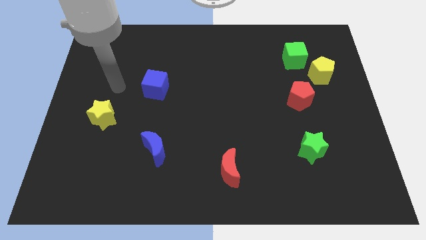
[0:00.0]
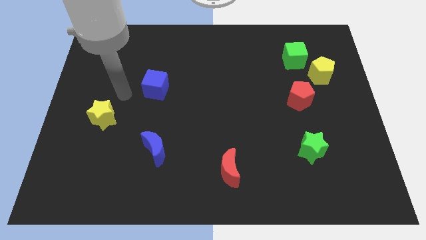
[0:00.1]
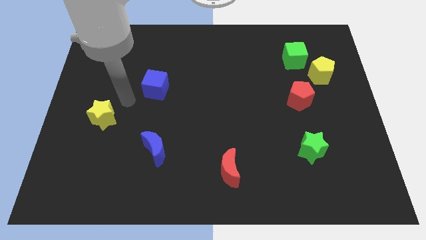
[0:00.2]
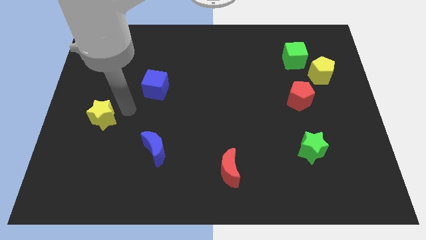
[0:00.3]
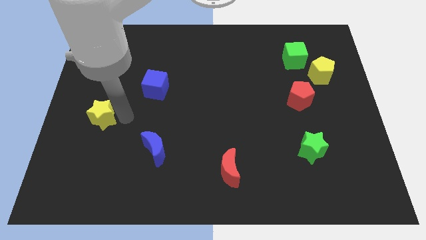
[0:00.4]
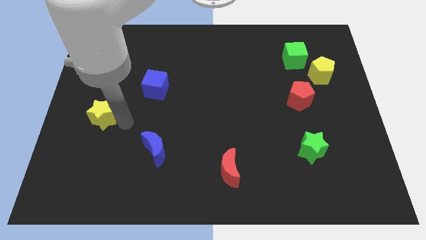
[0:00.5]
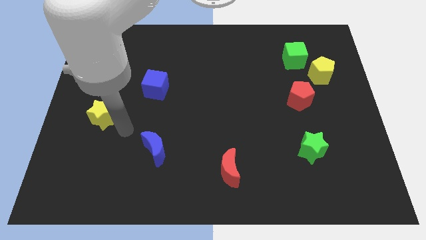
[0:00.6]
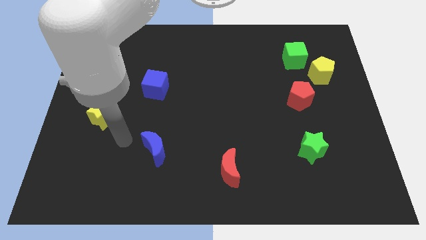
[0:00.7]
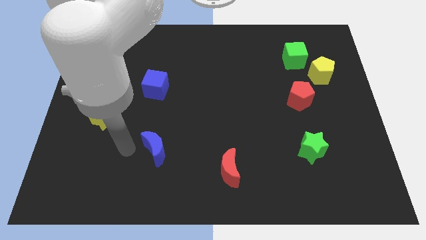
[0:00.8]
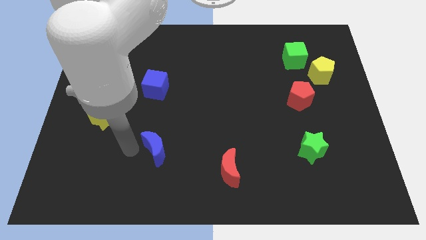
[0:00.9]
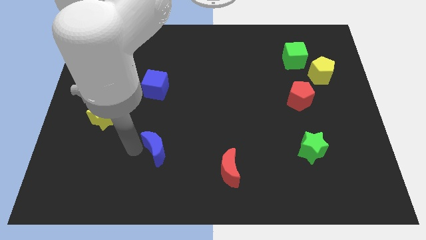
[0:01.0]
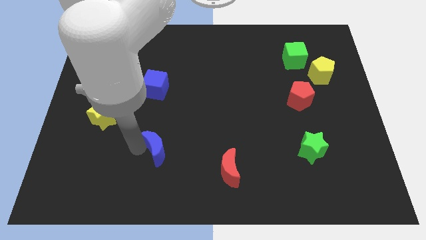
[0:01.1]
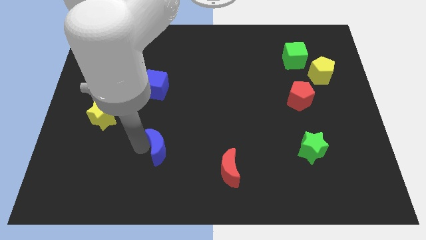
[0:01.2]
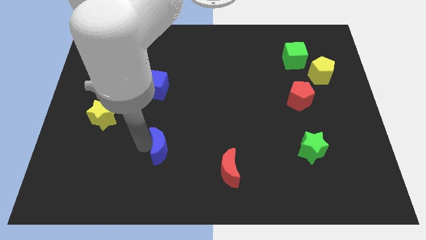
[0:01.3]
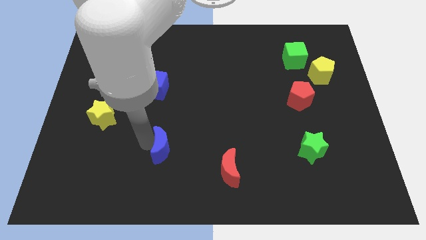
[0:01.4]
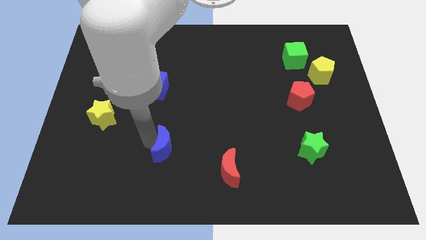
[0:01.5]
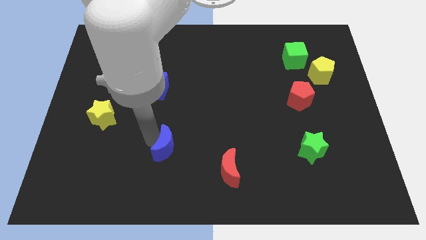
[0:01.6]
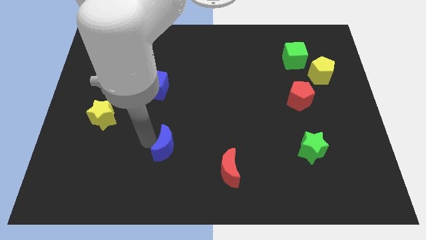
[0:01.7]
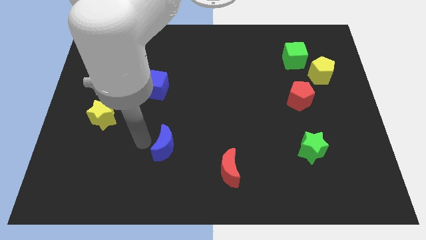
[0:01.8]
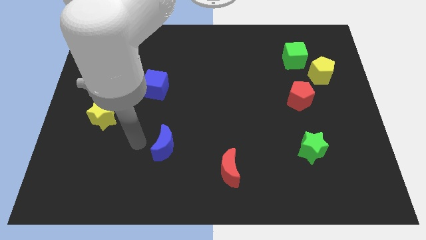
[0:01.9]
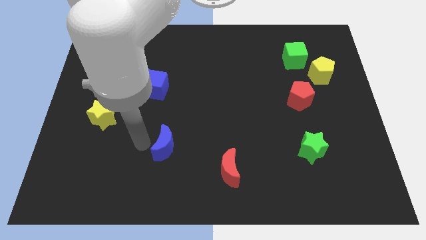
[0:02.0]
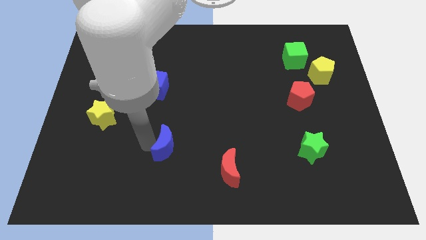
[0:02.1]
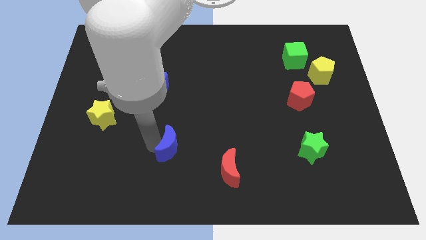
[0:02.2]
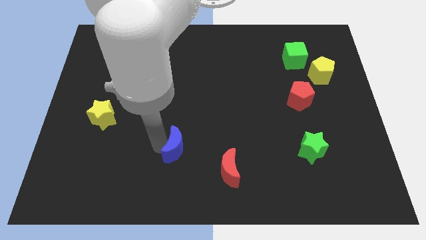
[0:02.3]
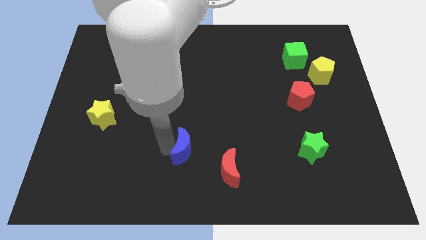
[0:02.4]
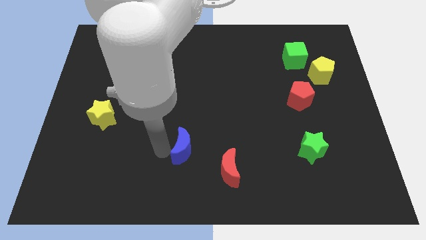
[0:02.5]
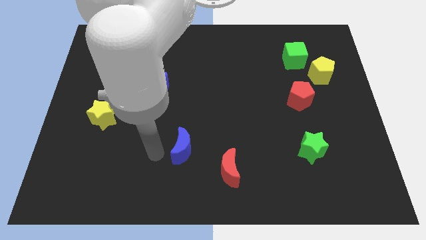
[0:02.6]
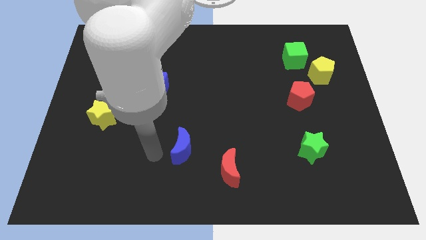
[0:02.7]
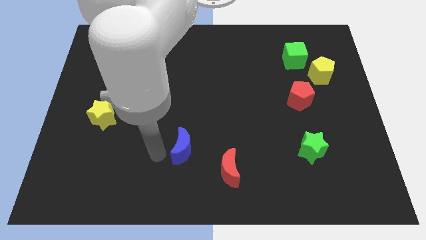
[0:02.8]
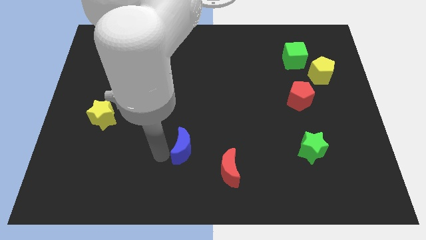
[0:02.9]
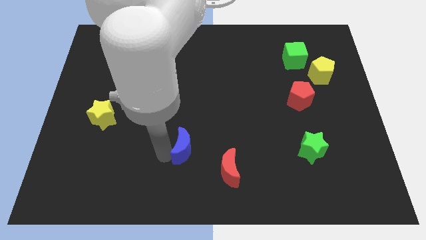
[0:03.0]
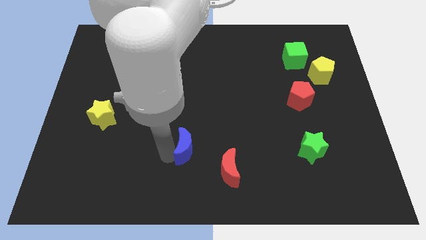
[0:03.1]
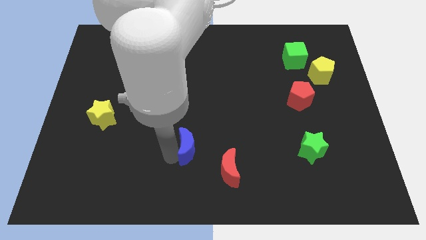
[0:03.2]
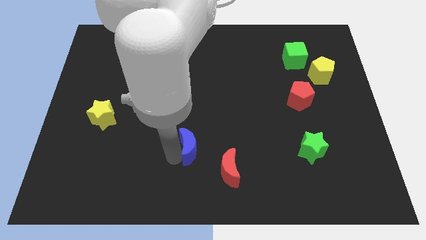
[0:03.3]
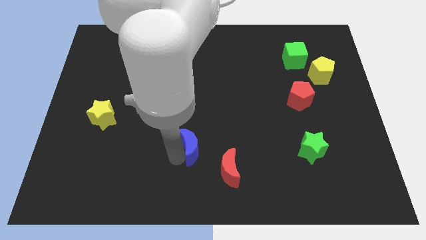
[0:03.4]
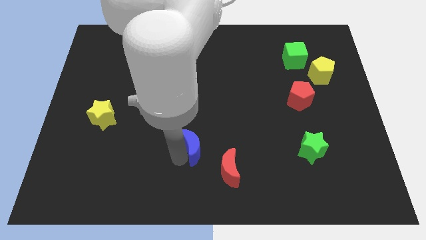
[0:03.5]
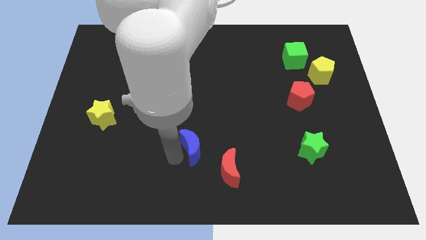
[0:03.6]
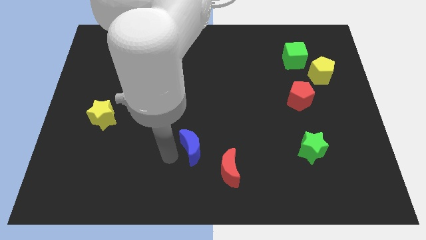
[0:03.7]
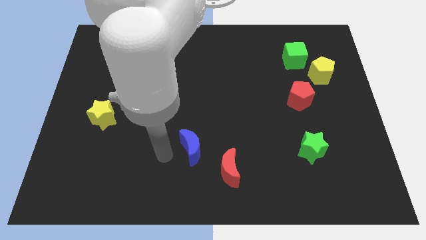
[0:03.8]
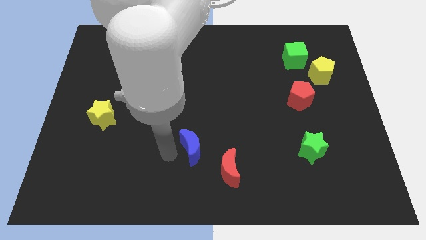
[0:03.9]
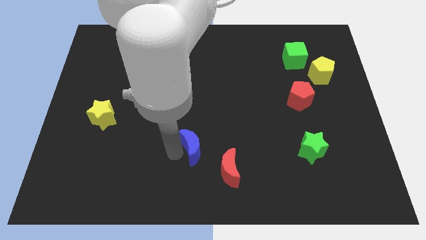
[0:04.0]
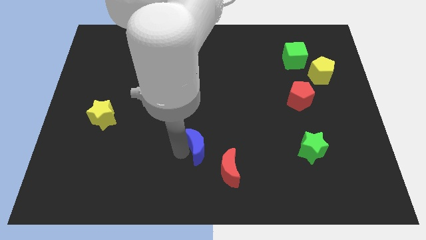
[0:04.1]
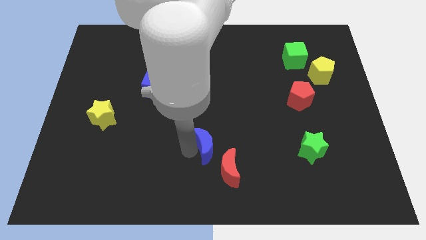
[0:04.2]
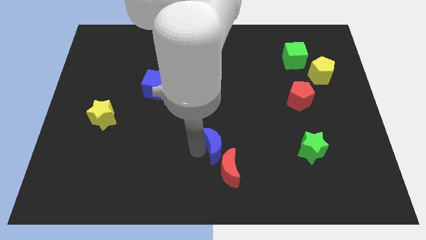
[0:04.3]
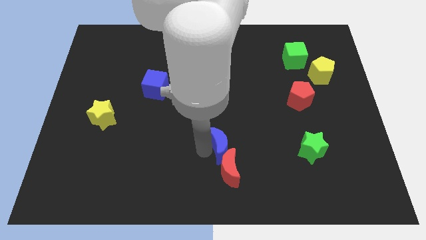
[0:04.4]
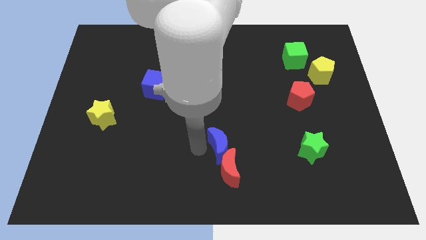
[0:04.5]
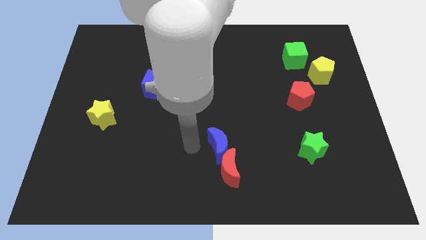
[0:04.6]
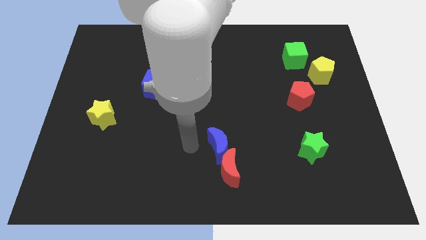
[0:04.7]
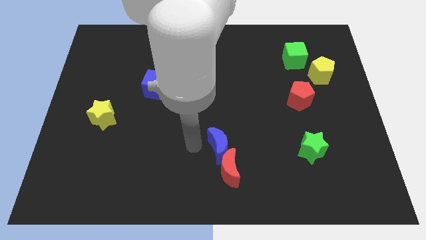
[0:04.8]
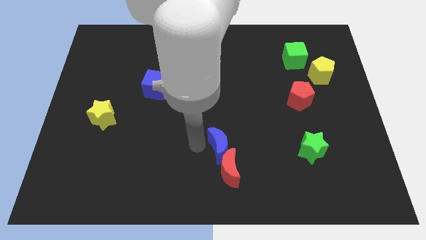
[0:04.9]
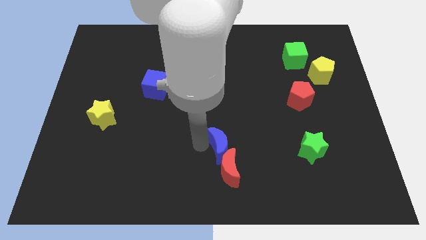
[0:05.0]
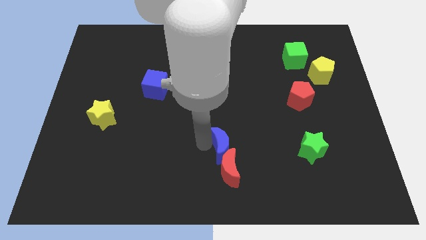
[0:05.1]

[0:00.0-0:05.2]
push the blue moon to the top right side of the red moon

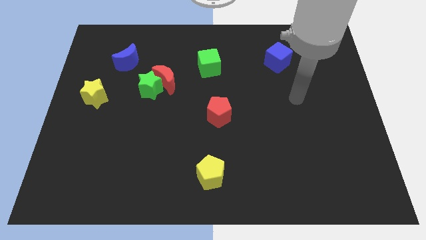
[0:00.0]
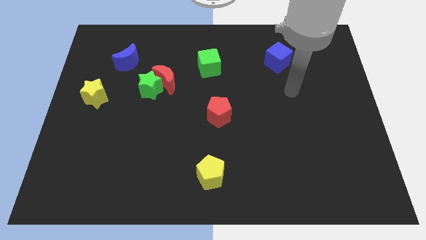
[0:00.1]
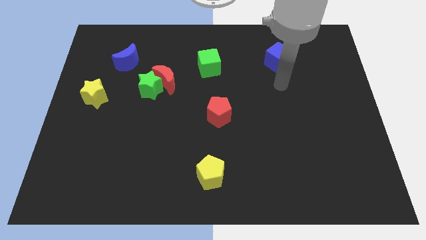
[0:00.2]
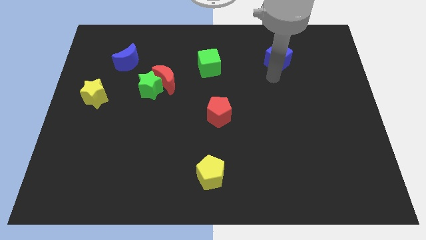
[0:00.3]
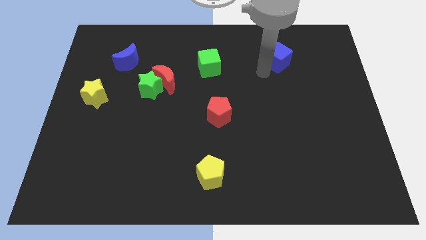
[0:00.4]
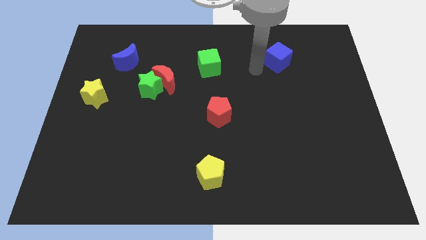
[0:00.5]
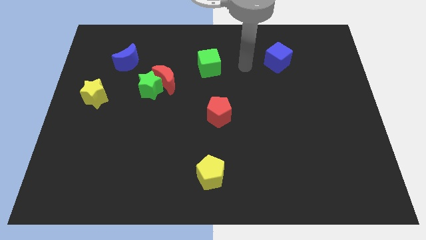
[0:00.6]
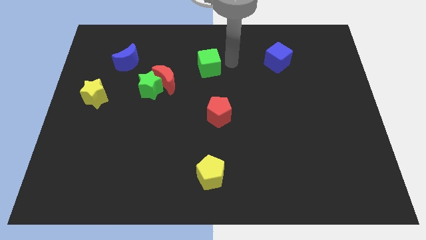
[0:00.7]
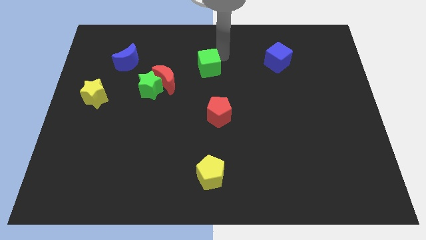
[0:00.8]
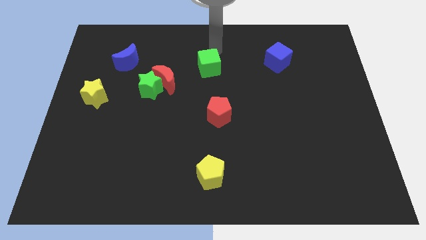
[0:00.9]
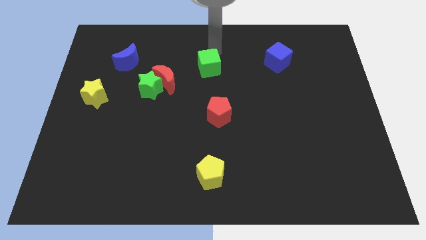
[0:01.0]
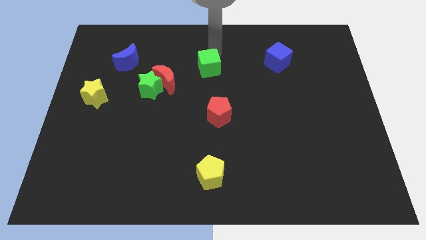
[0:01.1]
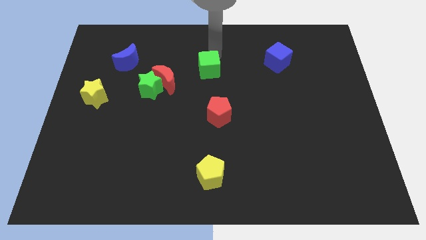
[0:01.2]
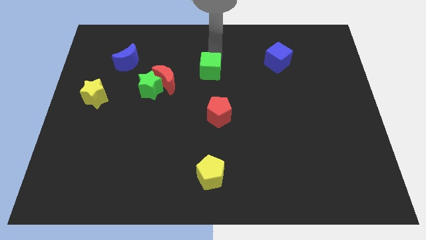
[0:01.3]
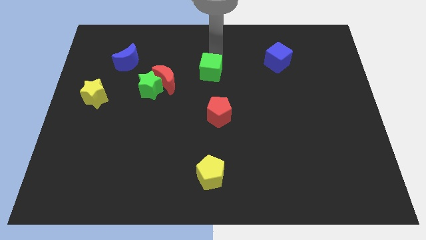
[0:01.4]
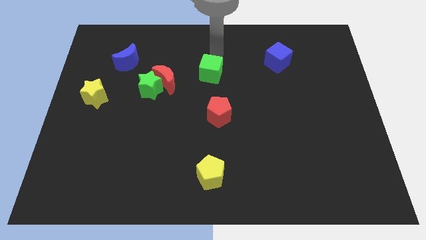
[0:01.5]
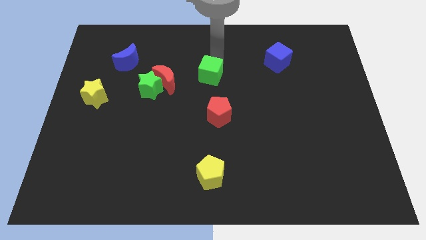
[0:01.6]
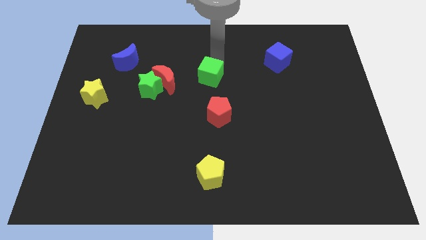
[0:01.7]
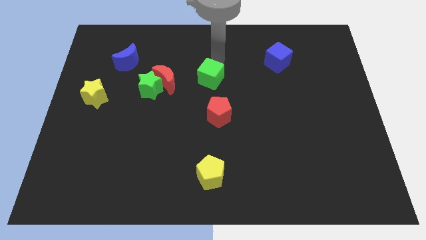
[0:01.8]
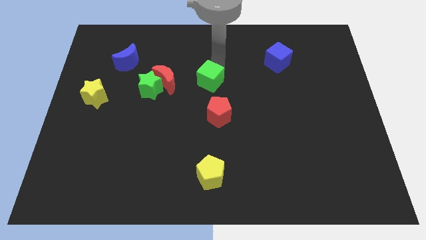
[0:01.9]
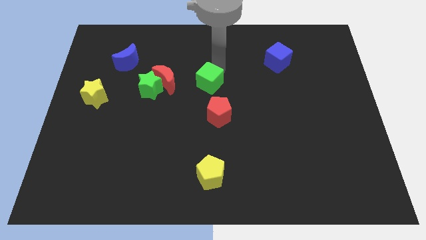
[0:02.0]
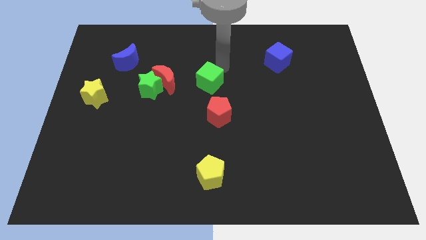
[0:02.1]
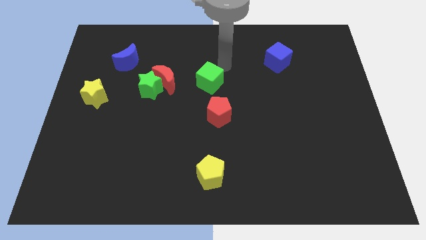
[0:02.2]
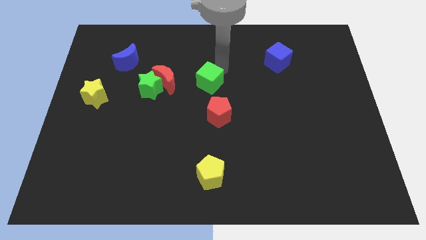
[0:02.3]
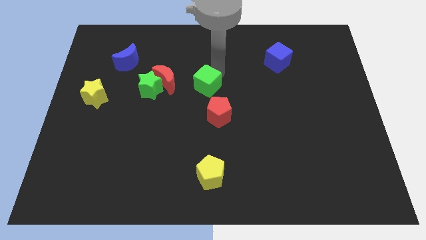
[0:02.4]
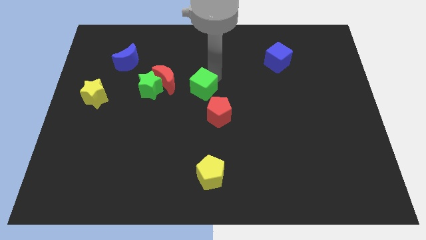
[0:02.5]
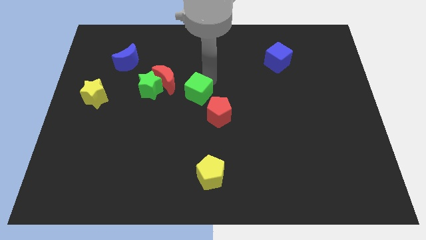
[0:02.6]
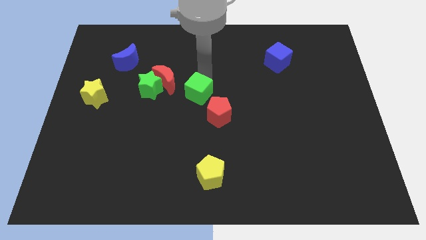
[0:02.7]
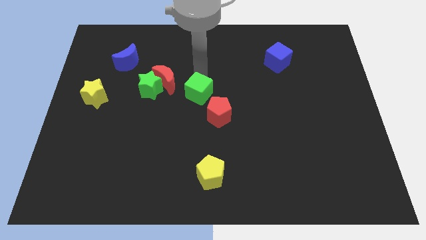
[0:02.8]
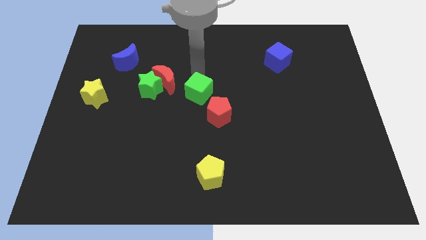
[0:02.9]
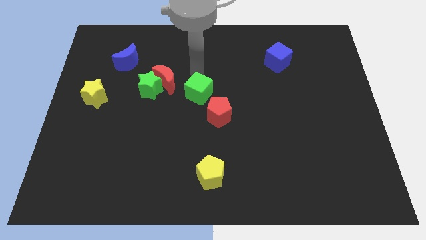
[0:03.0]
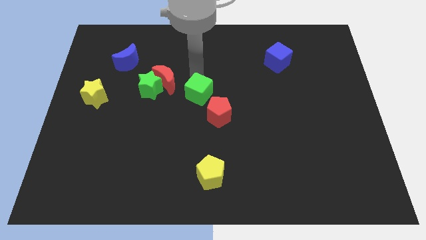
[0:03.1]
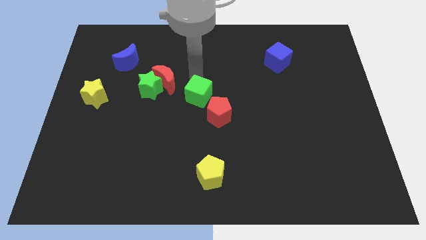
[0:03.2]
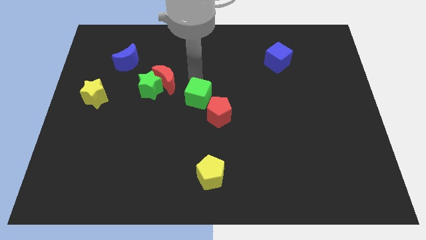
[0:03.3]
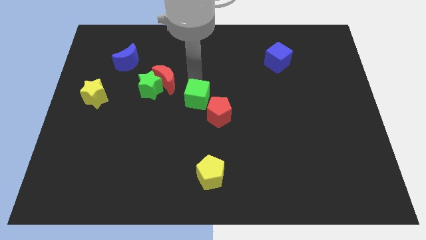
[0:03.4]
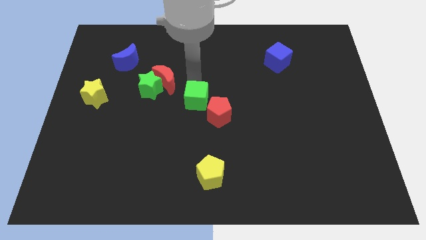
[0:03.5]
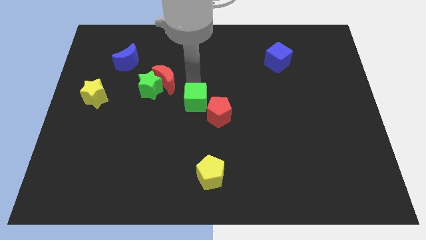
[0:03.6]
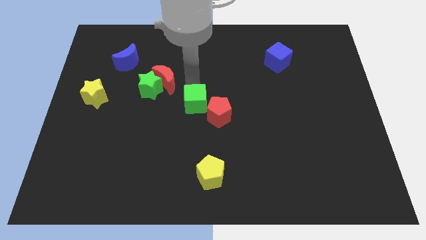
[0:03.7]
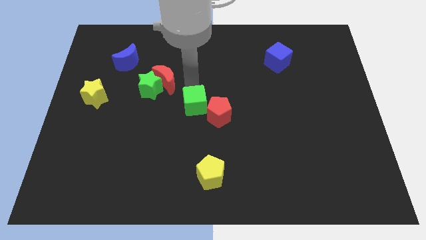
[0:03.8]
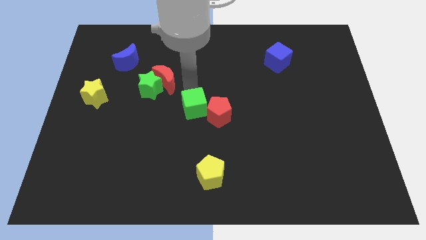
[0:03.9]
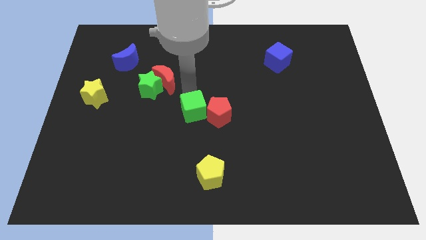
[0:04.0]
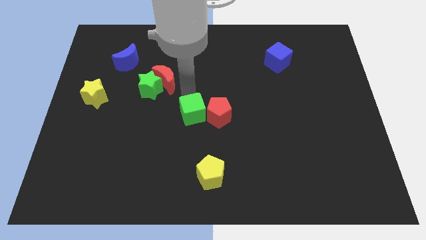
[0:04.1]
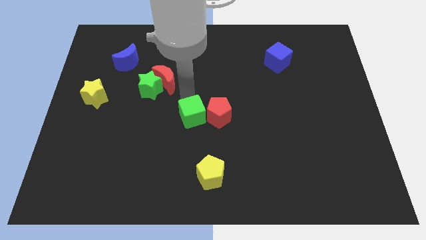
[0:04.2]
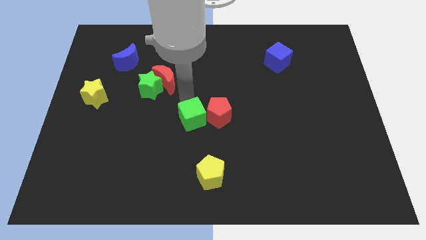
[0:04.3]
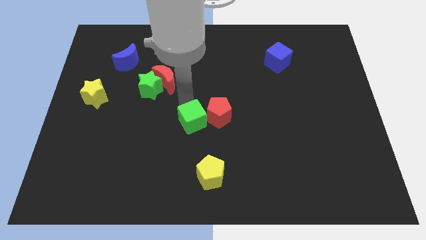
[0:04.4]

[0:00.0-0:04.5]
push the green cube above the yellow pentagon
